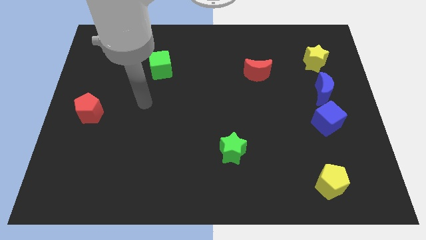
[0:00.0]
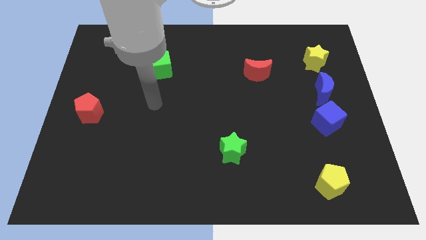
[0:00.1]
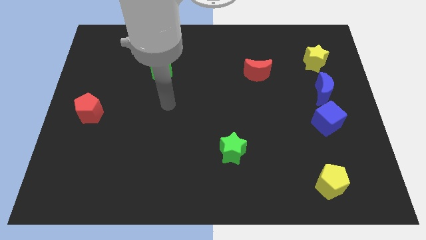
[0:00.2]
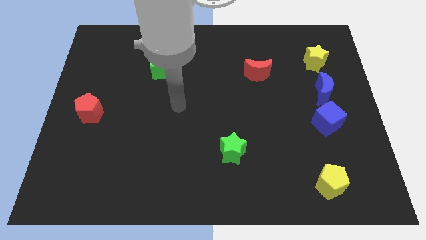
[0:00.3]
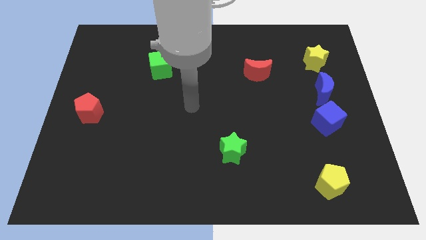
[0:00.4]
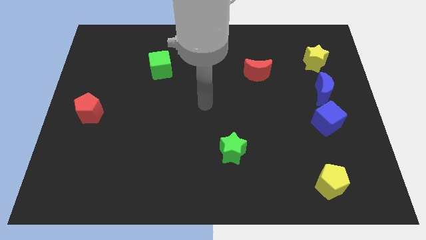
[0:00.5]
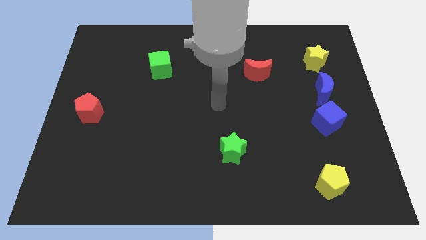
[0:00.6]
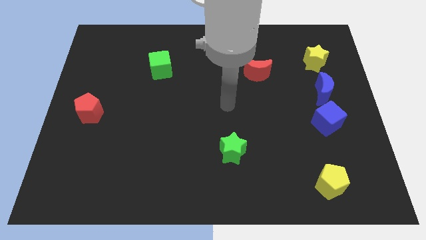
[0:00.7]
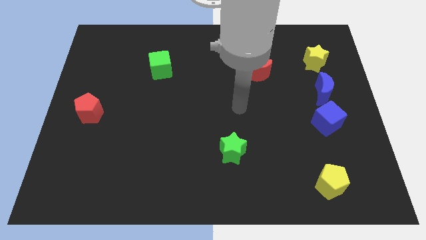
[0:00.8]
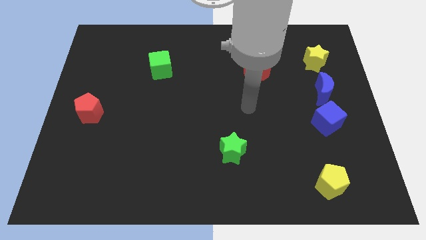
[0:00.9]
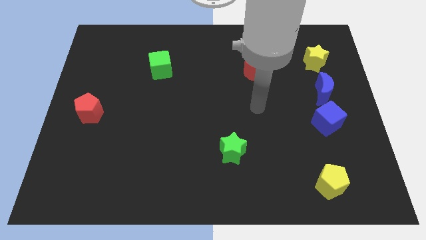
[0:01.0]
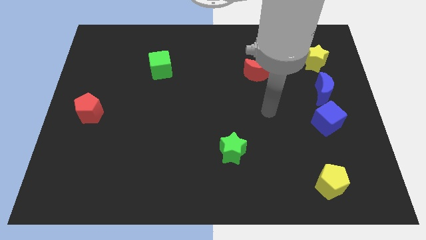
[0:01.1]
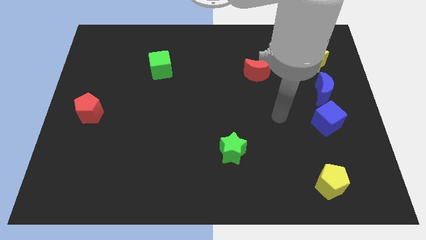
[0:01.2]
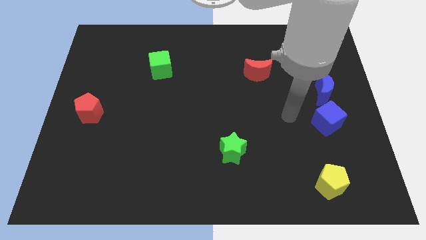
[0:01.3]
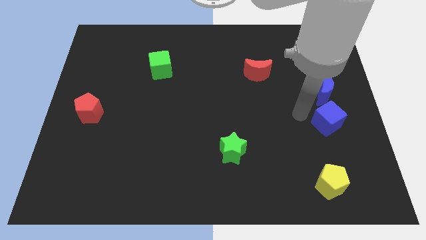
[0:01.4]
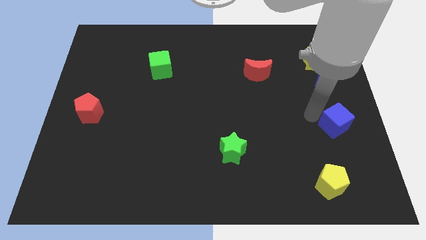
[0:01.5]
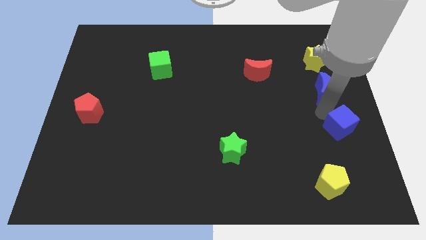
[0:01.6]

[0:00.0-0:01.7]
move the blue moon away from the blue cube

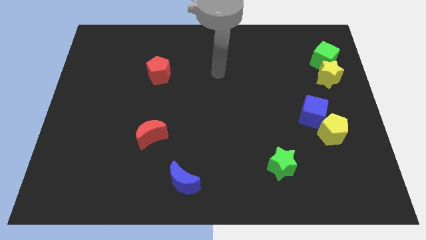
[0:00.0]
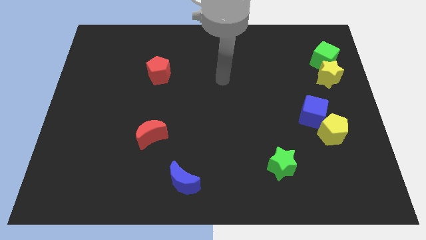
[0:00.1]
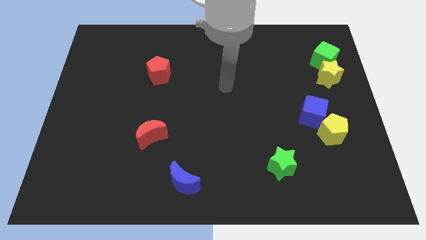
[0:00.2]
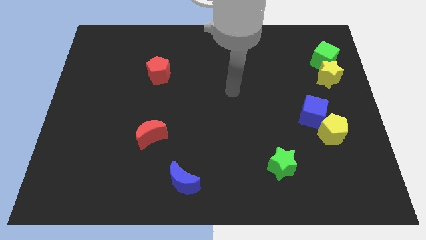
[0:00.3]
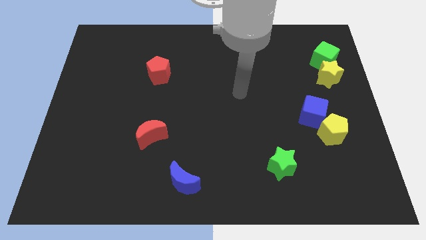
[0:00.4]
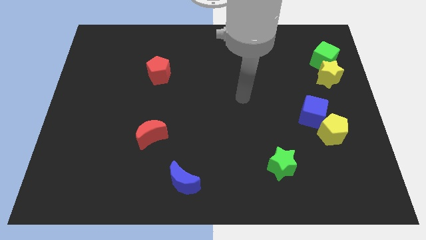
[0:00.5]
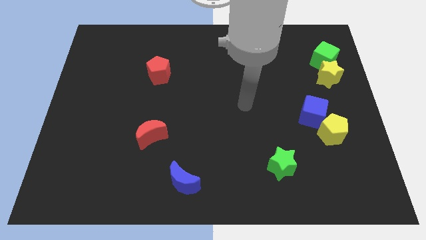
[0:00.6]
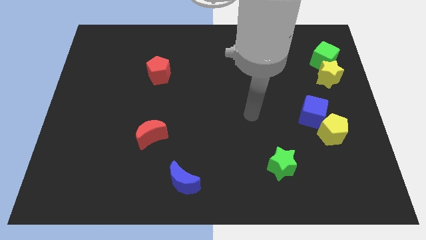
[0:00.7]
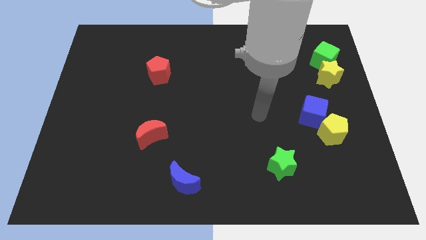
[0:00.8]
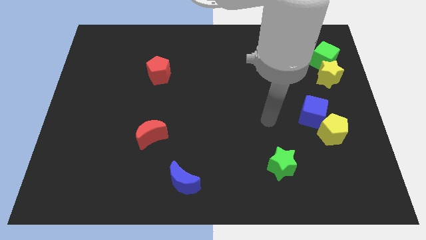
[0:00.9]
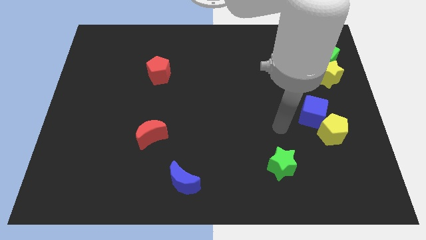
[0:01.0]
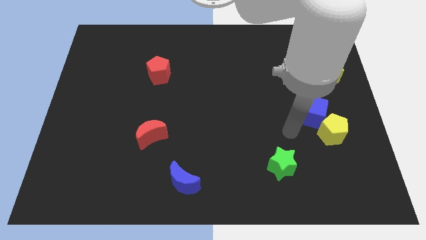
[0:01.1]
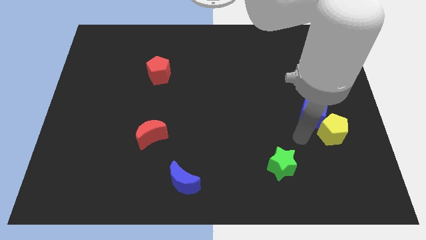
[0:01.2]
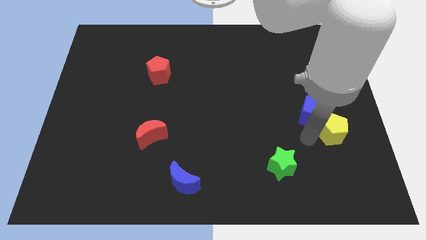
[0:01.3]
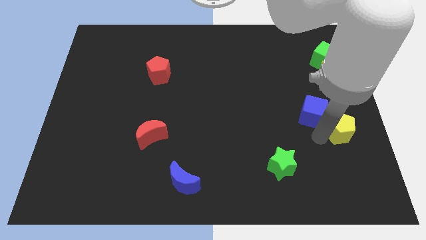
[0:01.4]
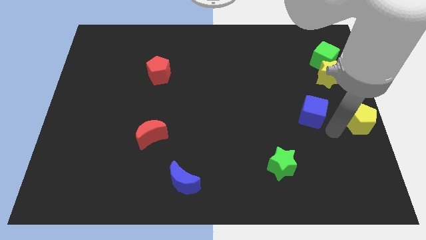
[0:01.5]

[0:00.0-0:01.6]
pull the blue cube apart from the yellow pentagon

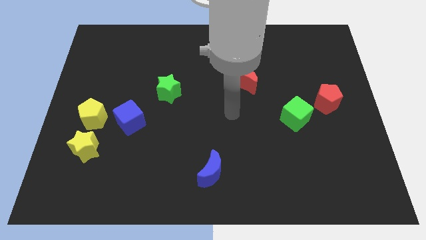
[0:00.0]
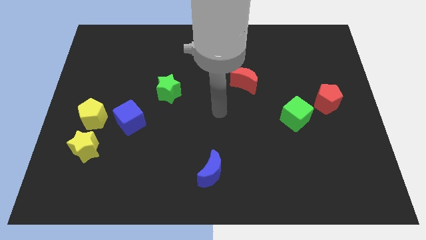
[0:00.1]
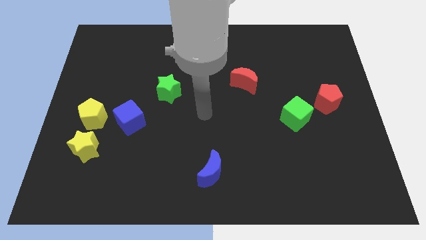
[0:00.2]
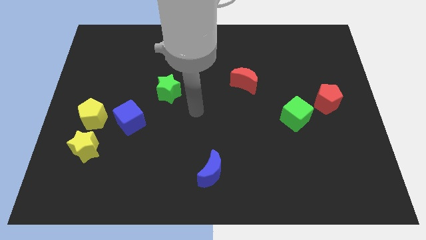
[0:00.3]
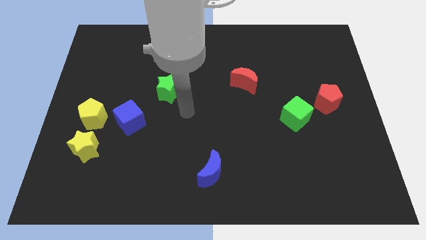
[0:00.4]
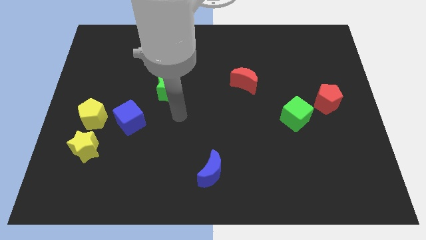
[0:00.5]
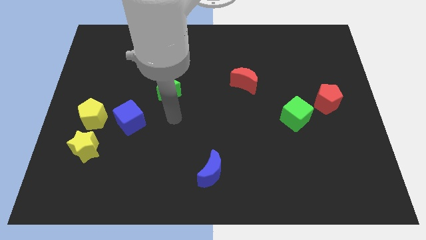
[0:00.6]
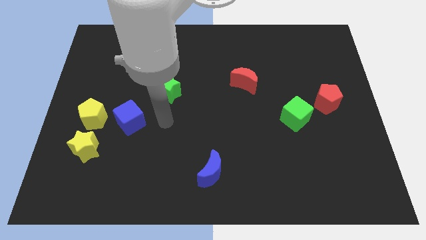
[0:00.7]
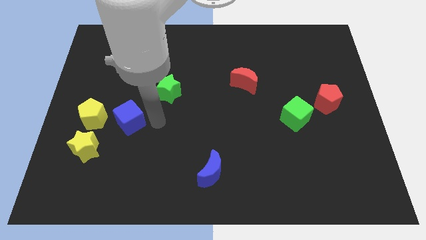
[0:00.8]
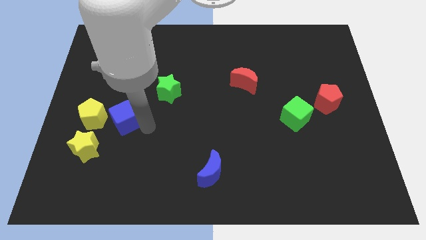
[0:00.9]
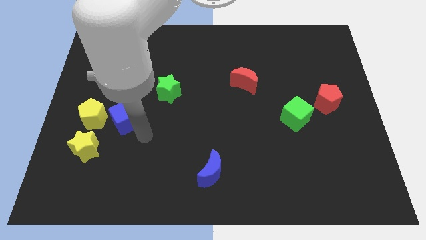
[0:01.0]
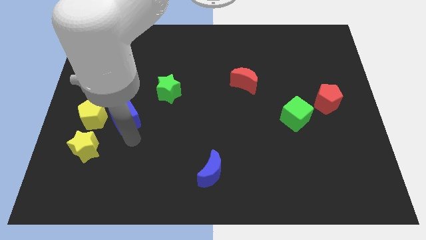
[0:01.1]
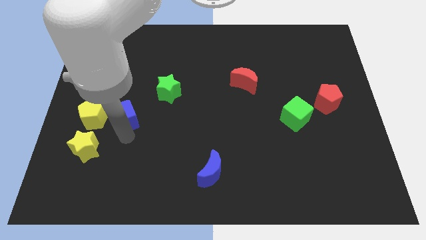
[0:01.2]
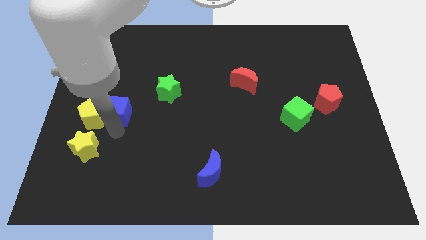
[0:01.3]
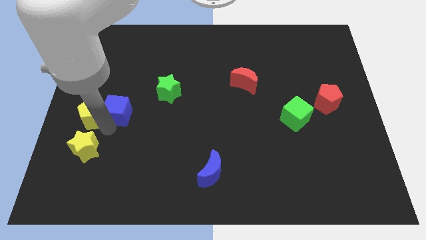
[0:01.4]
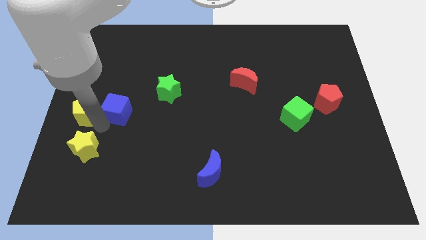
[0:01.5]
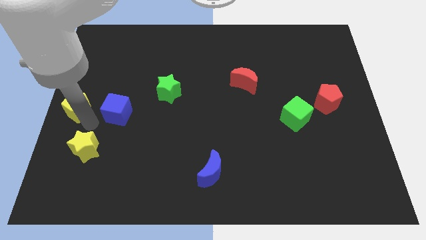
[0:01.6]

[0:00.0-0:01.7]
pull the yellow star apart from the yellow pentagon

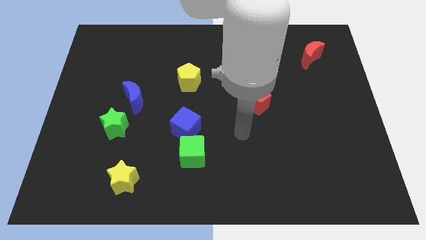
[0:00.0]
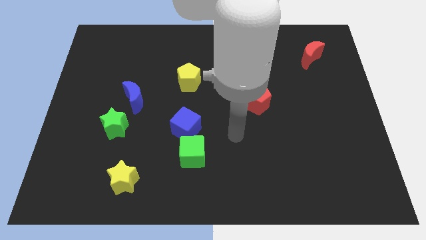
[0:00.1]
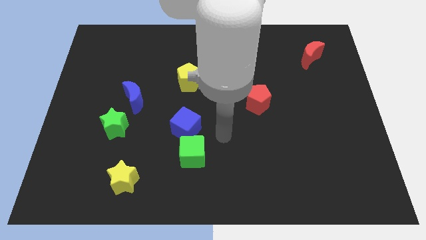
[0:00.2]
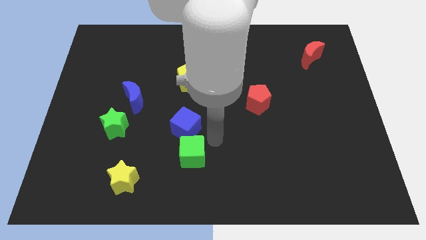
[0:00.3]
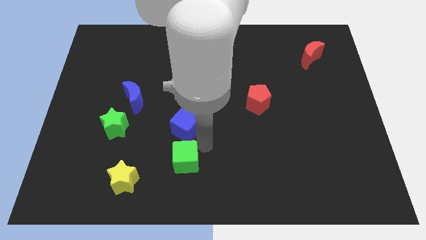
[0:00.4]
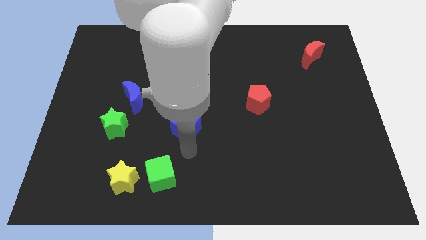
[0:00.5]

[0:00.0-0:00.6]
pull the blue cube apart from the green cube

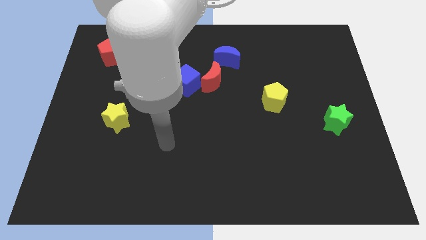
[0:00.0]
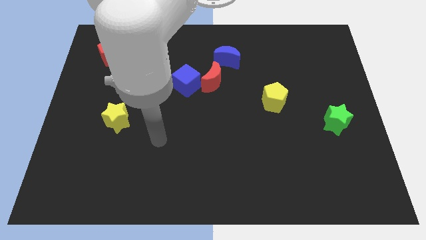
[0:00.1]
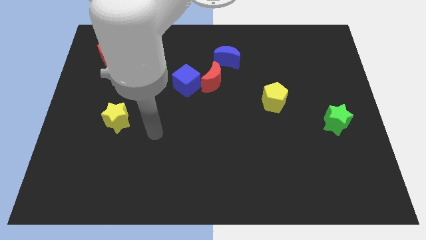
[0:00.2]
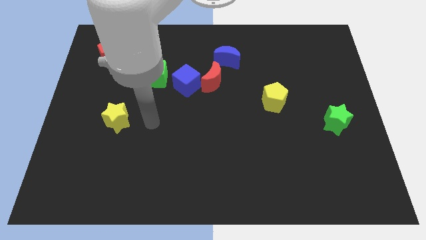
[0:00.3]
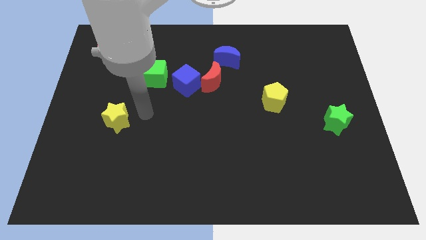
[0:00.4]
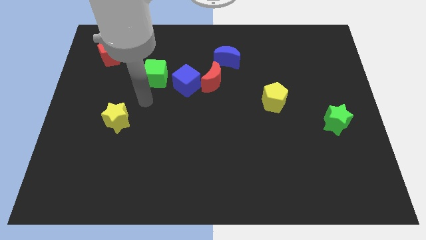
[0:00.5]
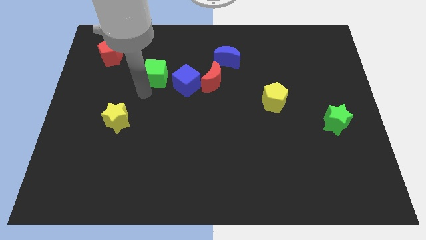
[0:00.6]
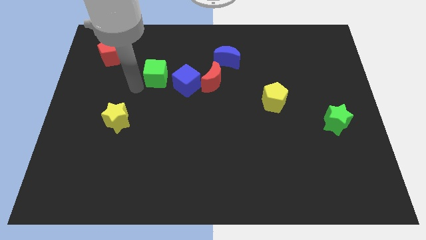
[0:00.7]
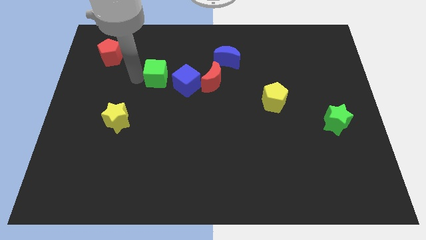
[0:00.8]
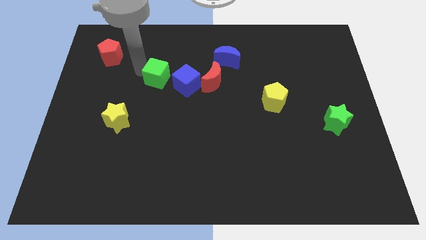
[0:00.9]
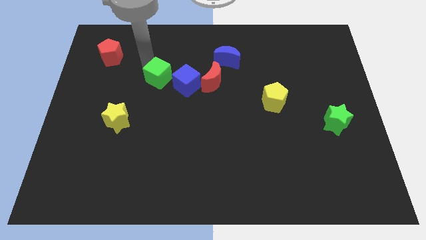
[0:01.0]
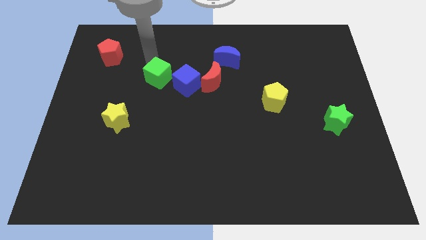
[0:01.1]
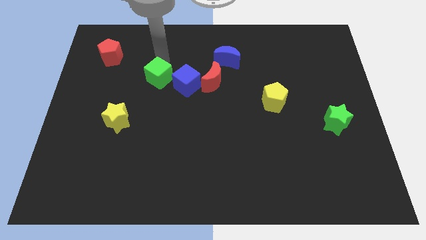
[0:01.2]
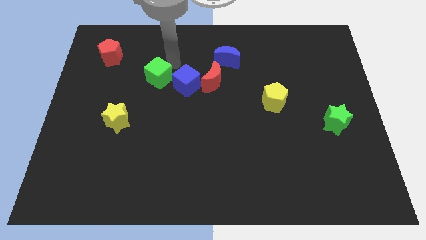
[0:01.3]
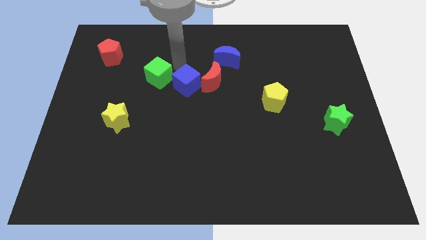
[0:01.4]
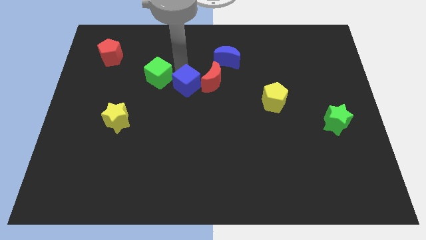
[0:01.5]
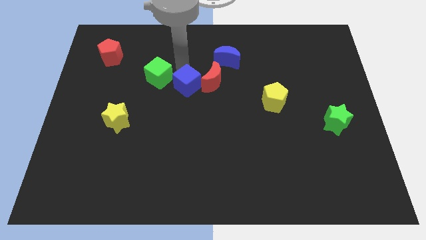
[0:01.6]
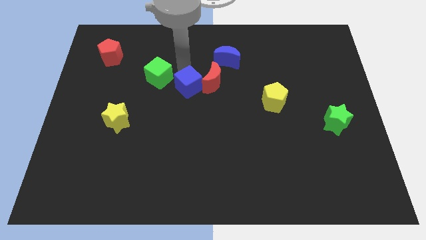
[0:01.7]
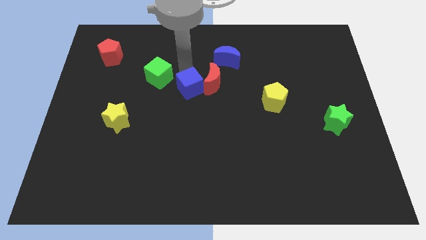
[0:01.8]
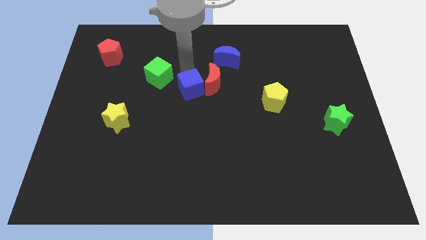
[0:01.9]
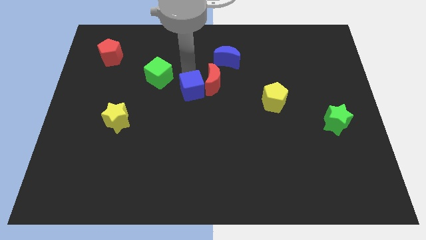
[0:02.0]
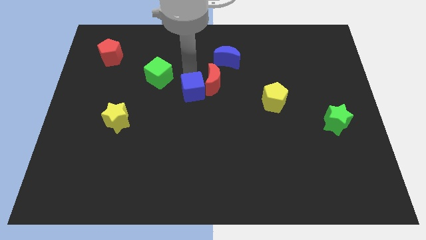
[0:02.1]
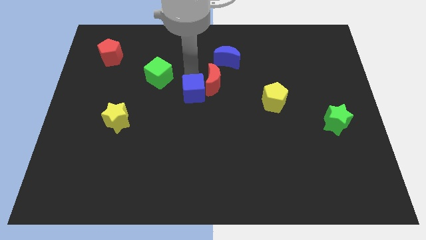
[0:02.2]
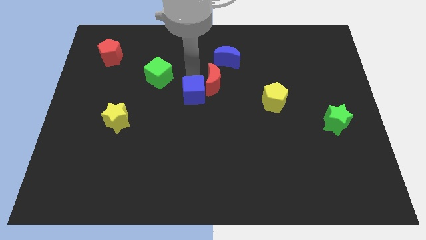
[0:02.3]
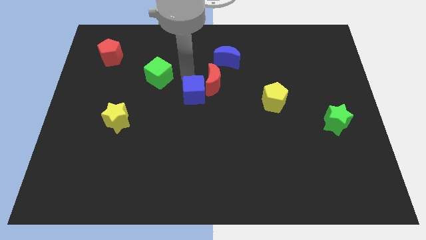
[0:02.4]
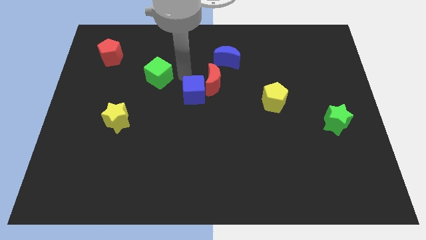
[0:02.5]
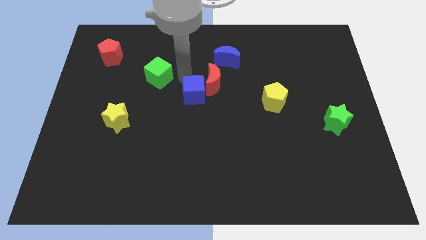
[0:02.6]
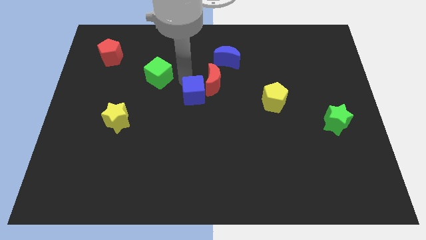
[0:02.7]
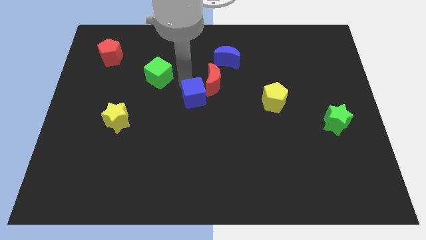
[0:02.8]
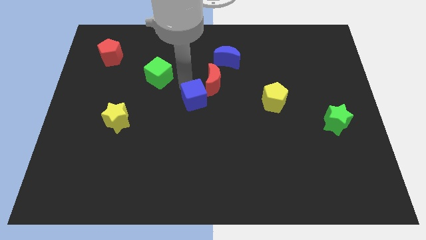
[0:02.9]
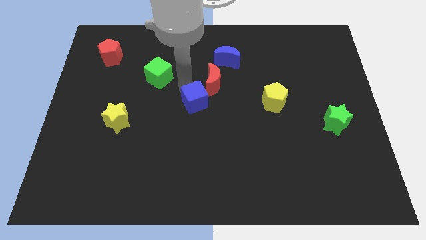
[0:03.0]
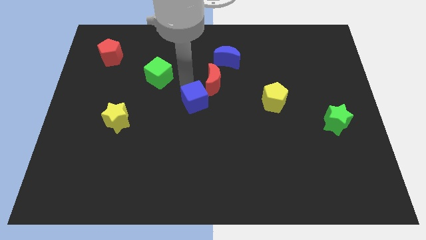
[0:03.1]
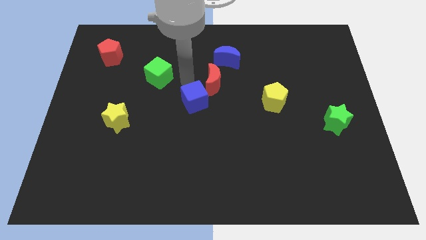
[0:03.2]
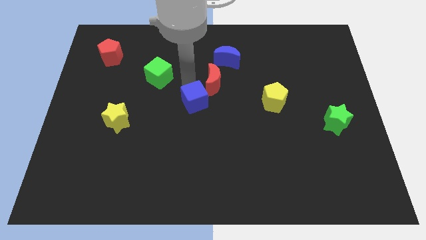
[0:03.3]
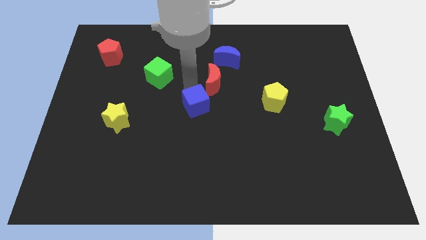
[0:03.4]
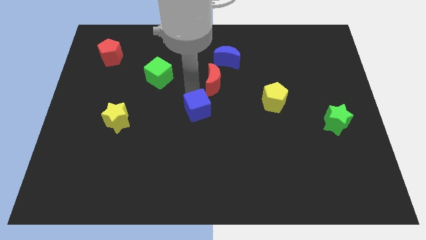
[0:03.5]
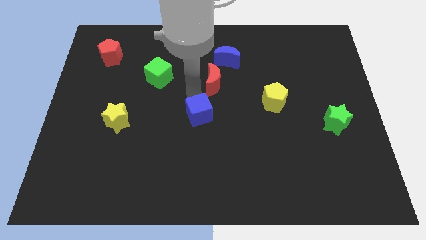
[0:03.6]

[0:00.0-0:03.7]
move the blue cube away from the red moon and green cube

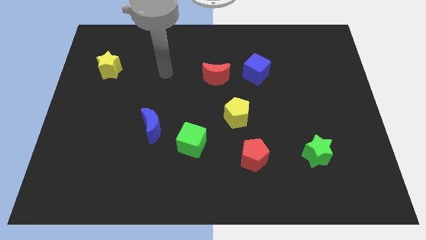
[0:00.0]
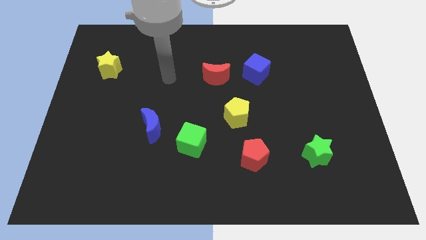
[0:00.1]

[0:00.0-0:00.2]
move the blue moon away from the green cube
